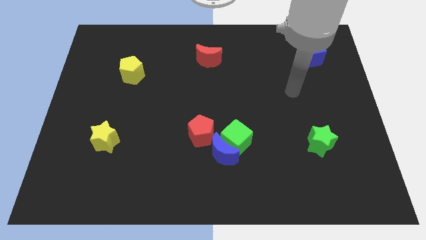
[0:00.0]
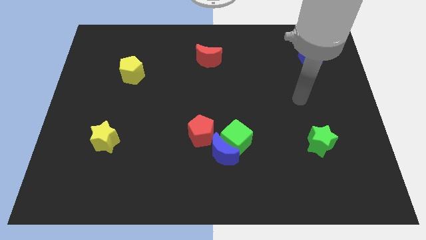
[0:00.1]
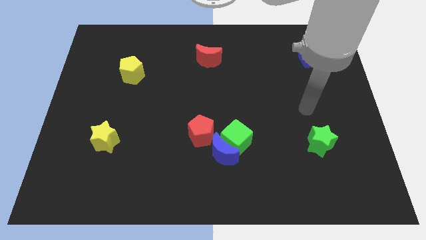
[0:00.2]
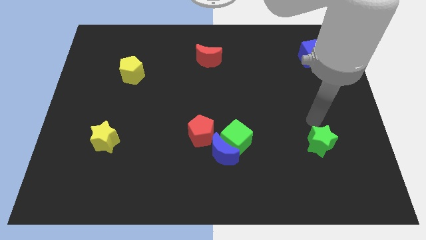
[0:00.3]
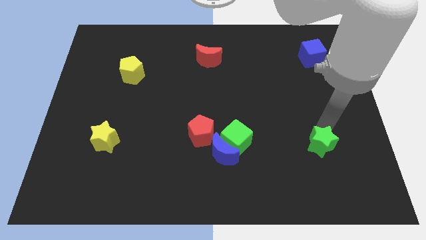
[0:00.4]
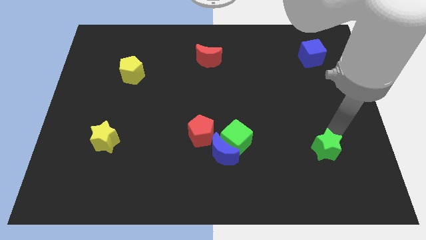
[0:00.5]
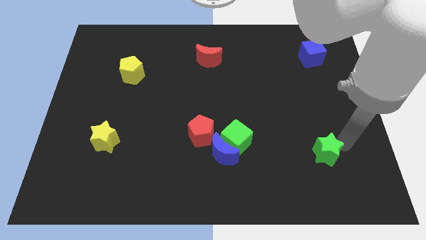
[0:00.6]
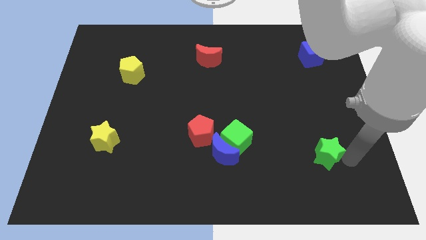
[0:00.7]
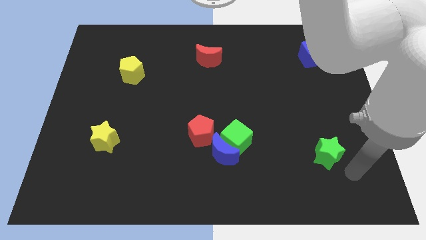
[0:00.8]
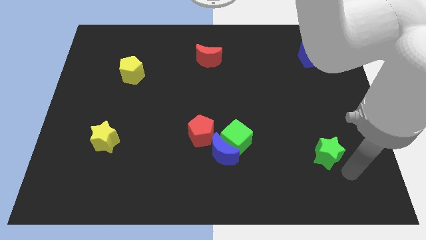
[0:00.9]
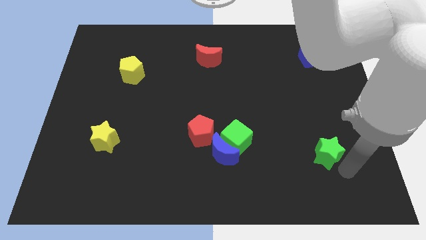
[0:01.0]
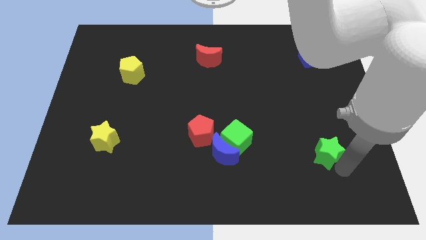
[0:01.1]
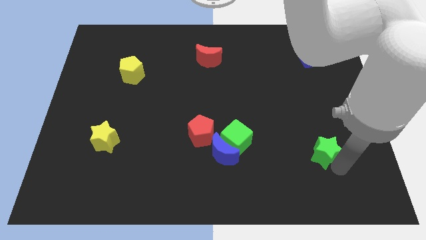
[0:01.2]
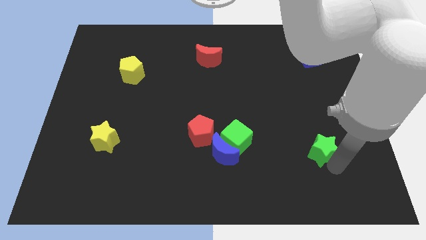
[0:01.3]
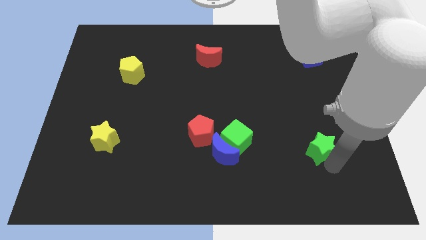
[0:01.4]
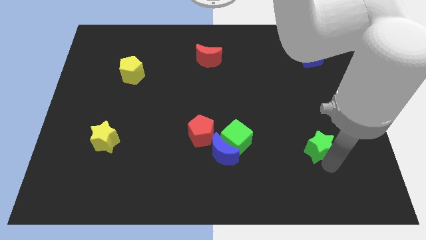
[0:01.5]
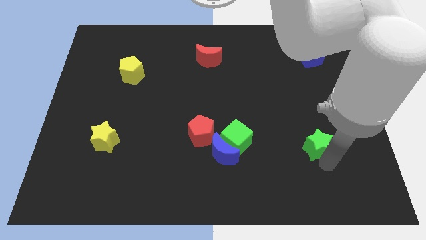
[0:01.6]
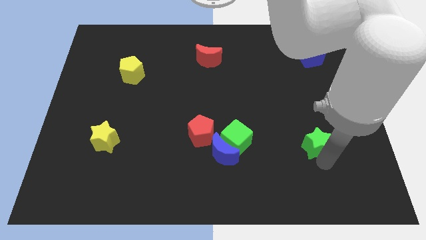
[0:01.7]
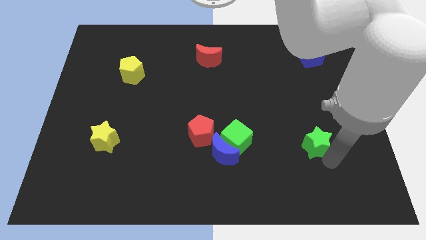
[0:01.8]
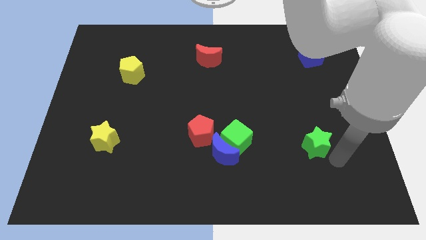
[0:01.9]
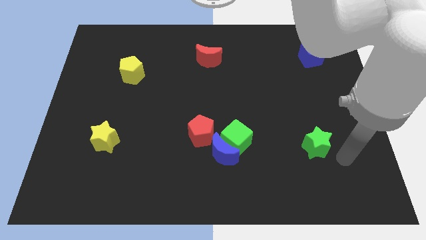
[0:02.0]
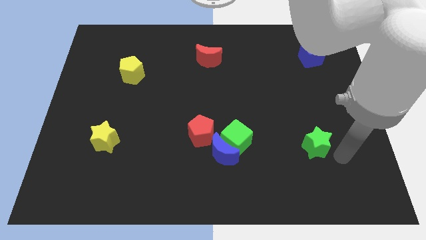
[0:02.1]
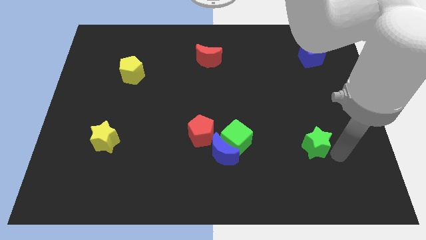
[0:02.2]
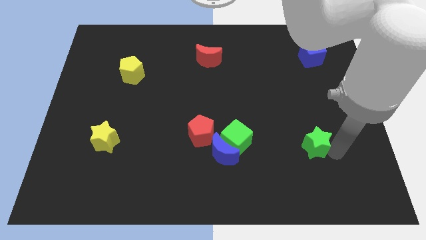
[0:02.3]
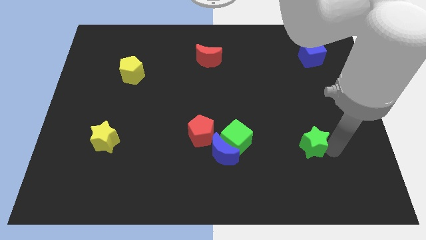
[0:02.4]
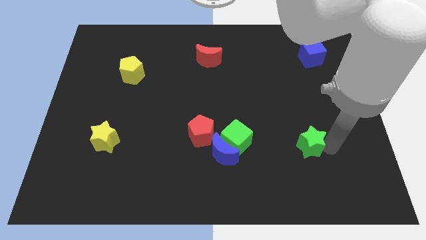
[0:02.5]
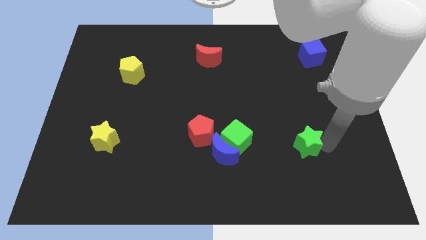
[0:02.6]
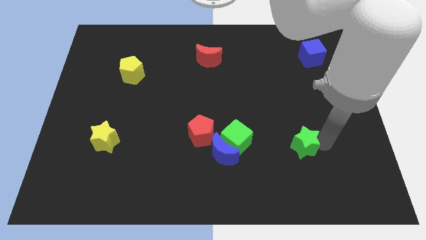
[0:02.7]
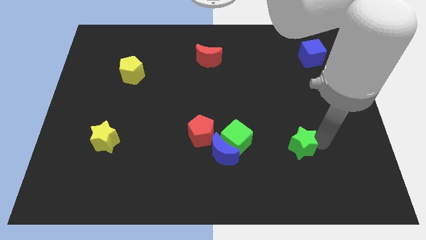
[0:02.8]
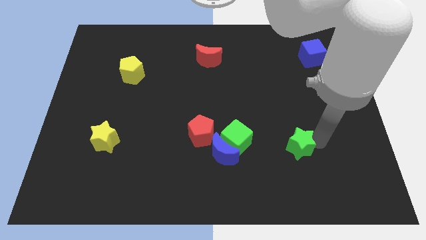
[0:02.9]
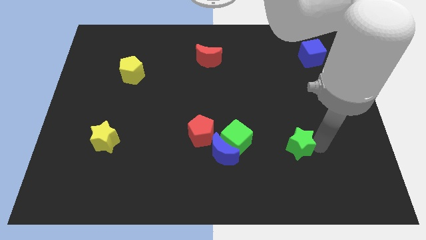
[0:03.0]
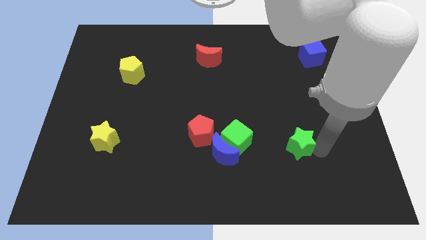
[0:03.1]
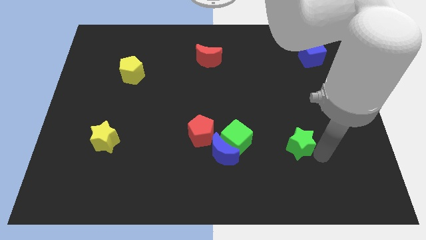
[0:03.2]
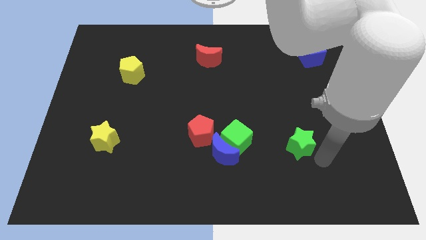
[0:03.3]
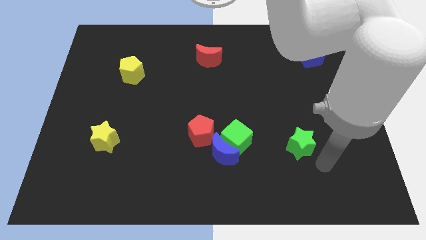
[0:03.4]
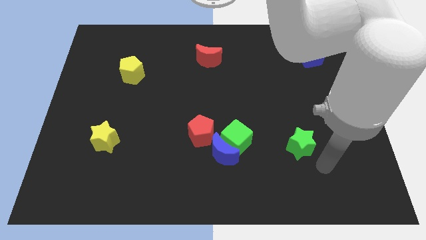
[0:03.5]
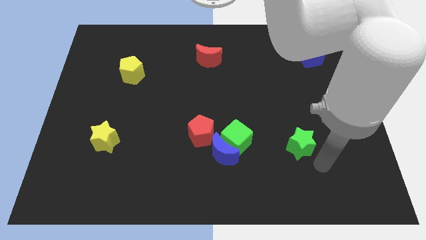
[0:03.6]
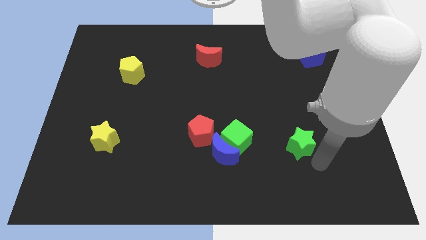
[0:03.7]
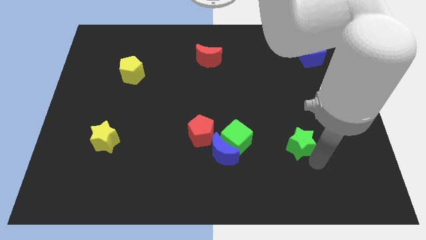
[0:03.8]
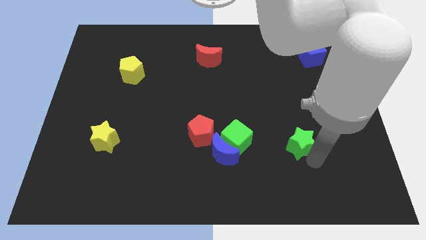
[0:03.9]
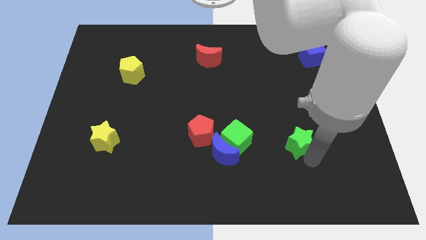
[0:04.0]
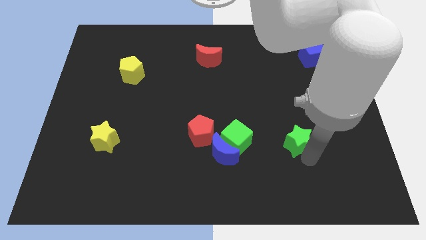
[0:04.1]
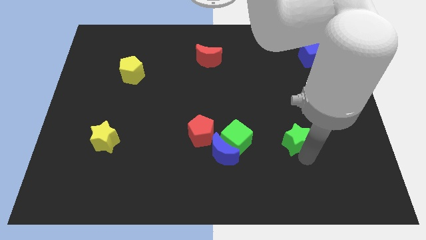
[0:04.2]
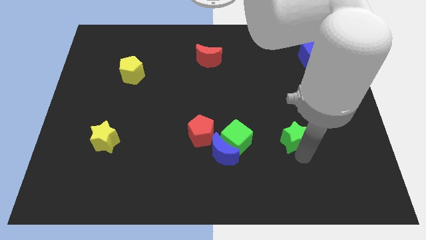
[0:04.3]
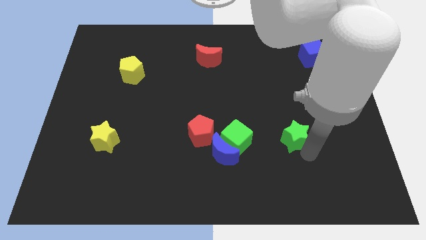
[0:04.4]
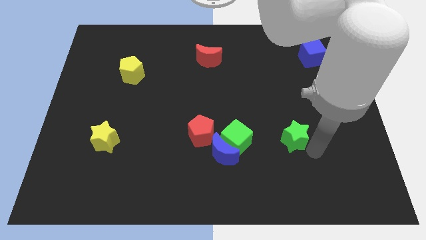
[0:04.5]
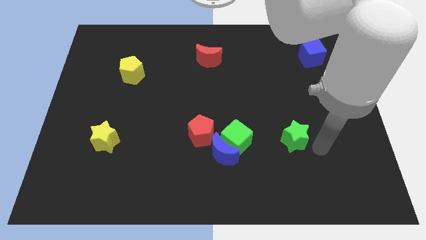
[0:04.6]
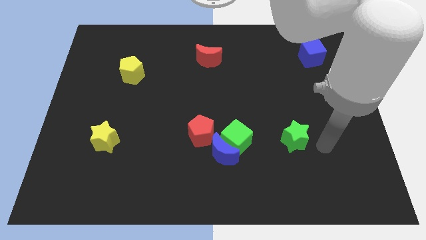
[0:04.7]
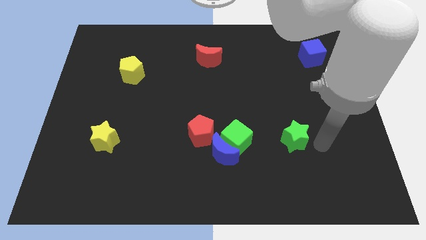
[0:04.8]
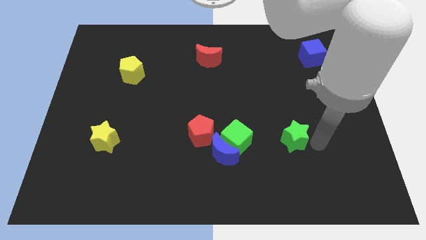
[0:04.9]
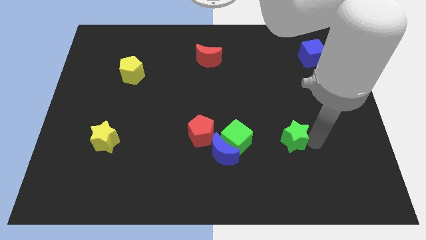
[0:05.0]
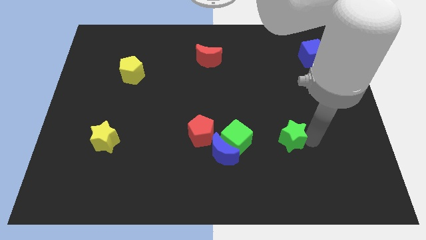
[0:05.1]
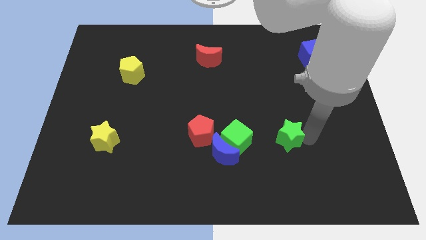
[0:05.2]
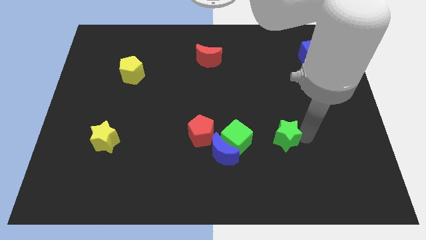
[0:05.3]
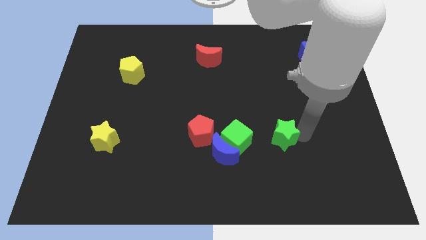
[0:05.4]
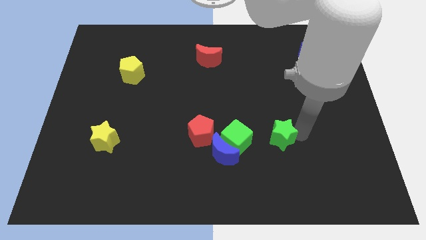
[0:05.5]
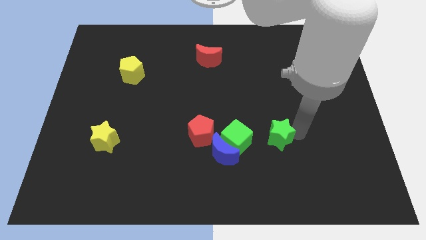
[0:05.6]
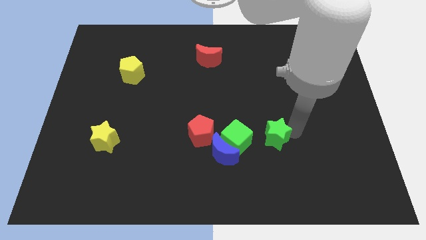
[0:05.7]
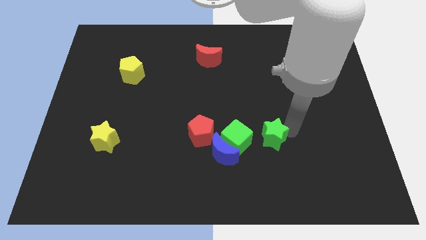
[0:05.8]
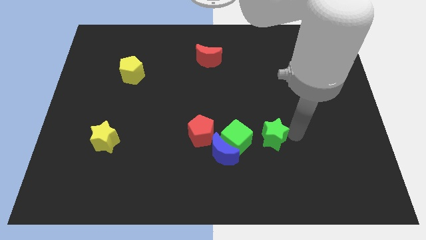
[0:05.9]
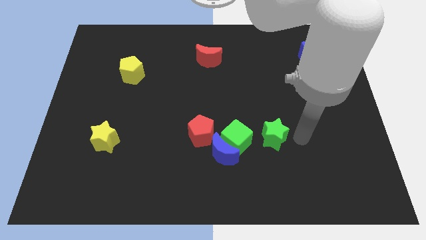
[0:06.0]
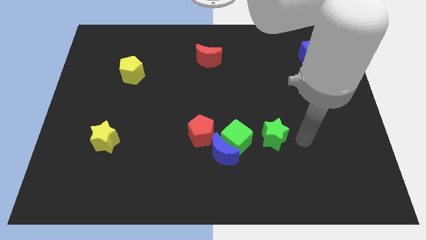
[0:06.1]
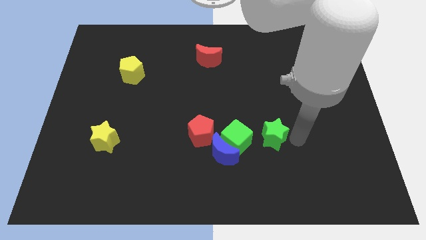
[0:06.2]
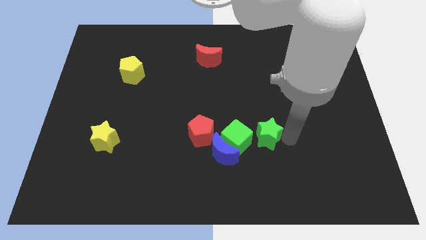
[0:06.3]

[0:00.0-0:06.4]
move the green star to the top right side of the blue moon

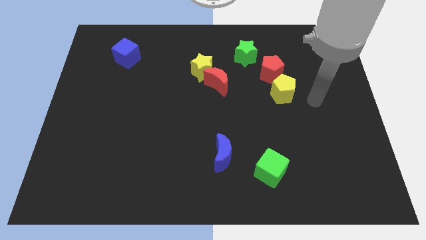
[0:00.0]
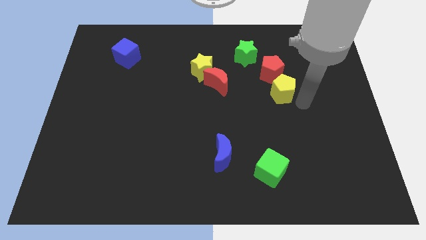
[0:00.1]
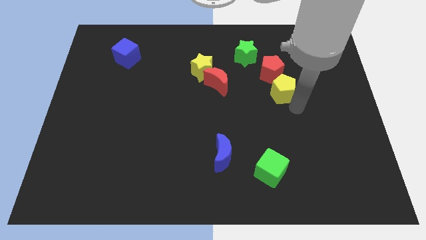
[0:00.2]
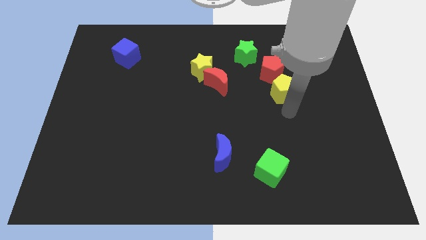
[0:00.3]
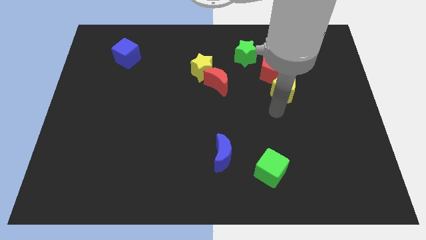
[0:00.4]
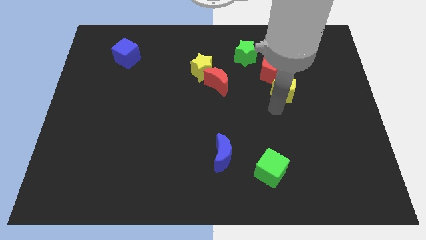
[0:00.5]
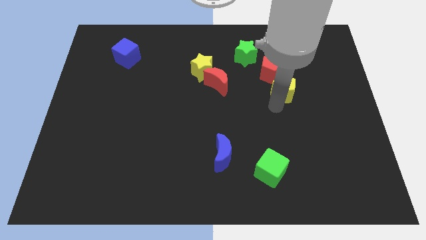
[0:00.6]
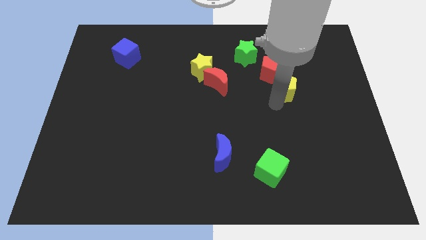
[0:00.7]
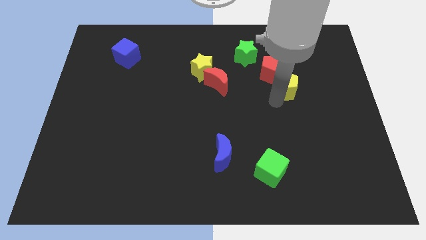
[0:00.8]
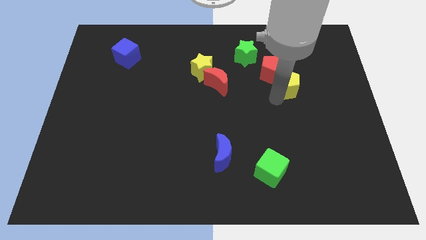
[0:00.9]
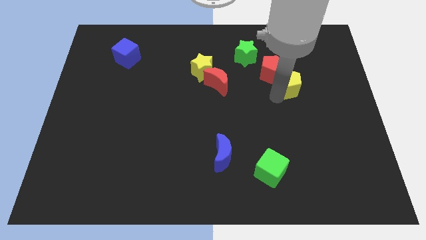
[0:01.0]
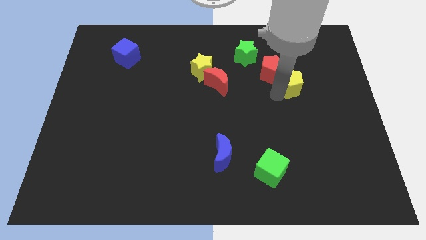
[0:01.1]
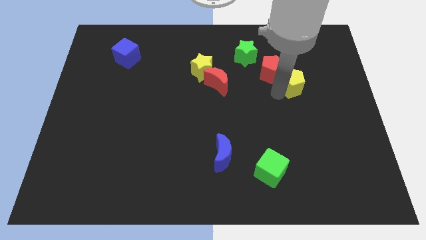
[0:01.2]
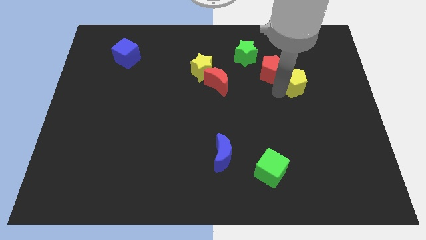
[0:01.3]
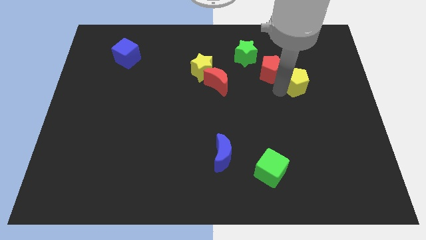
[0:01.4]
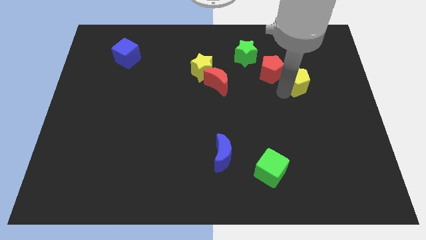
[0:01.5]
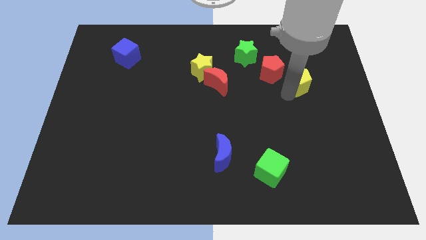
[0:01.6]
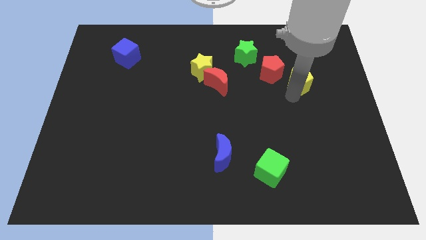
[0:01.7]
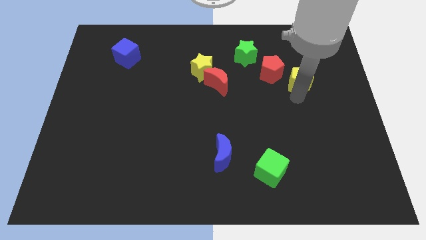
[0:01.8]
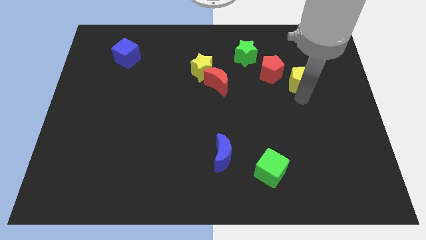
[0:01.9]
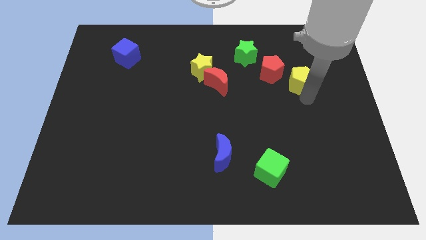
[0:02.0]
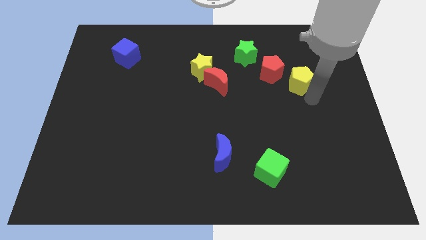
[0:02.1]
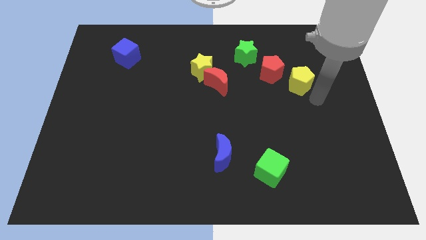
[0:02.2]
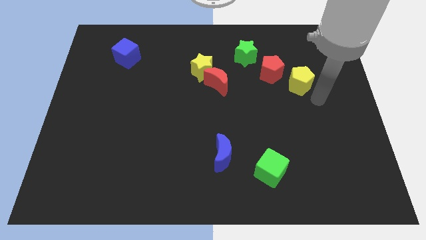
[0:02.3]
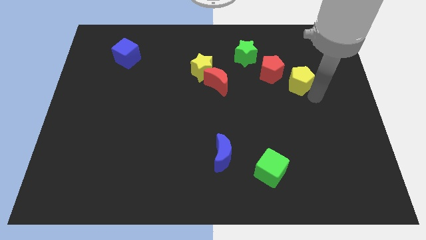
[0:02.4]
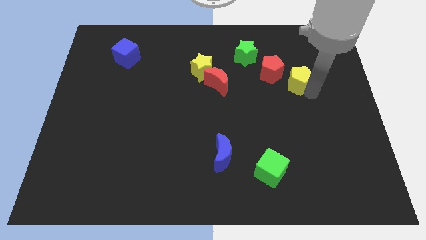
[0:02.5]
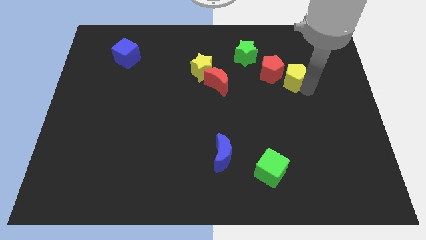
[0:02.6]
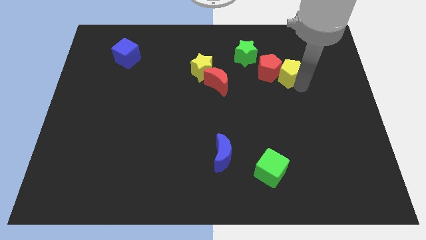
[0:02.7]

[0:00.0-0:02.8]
put the yellow pentagon diagonally up and to the right of the red pentagon
